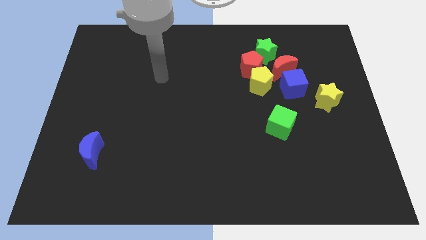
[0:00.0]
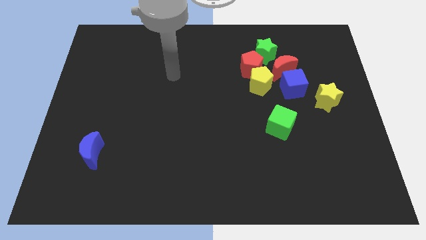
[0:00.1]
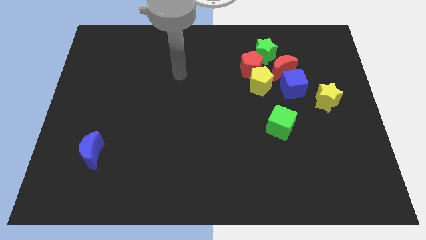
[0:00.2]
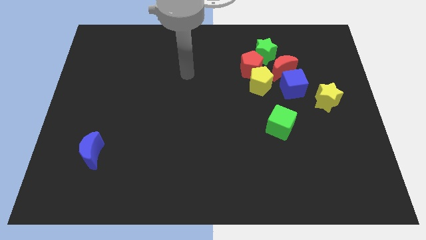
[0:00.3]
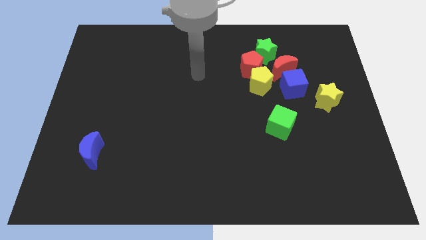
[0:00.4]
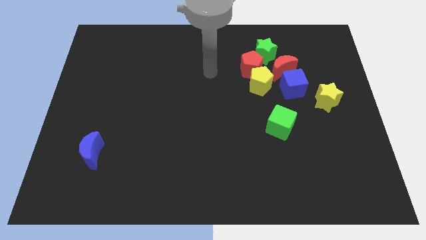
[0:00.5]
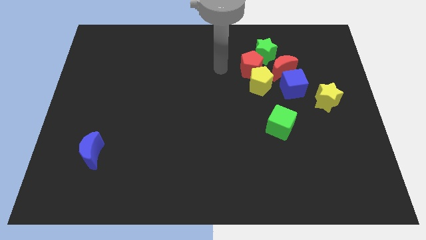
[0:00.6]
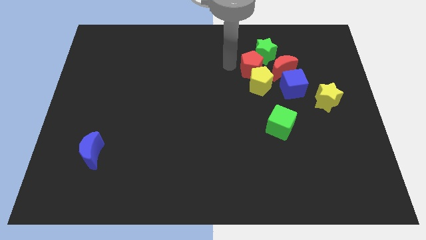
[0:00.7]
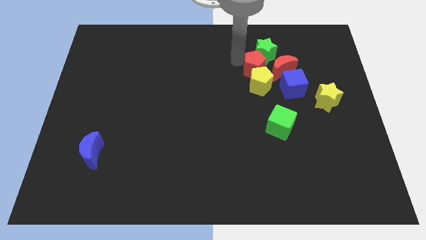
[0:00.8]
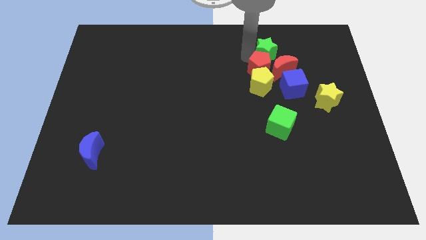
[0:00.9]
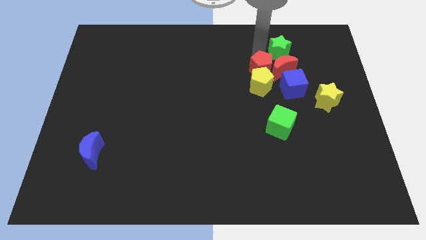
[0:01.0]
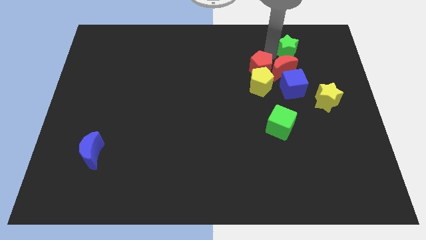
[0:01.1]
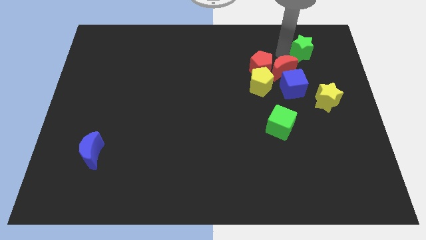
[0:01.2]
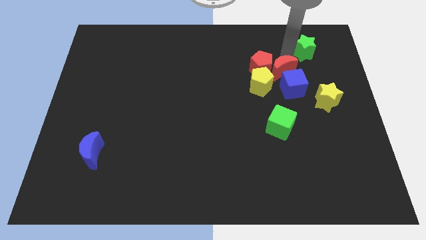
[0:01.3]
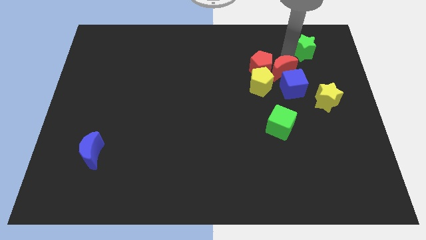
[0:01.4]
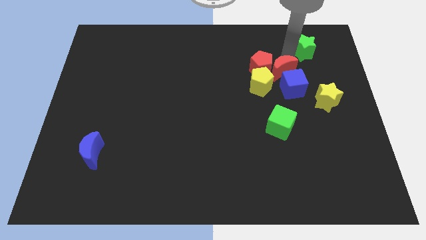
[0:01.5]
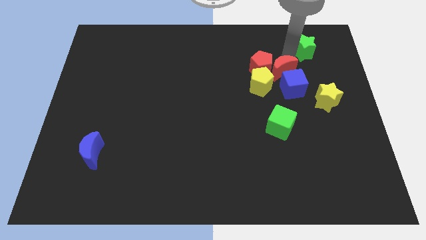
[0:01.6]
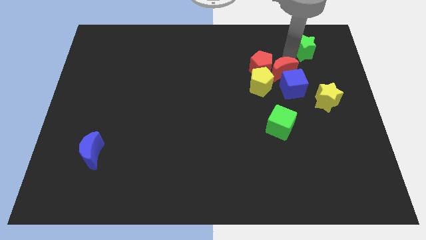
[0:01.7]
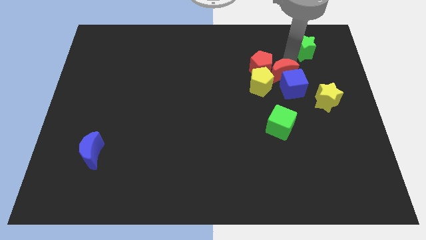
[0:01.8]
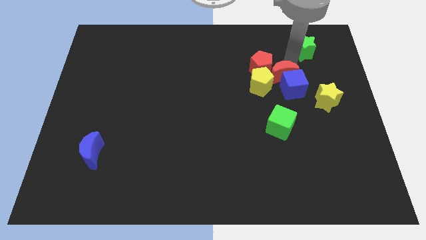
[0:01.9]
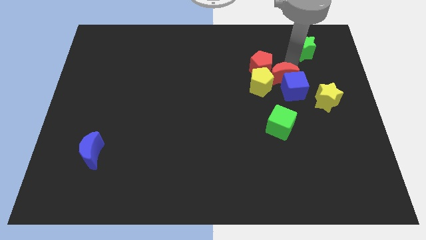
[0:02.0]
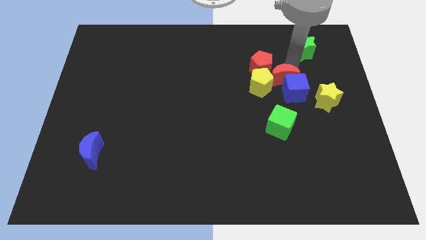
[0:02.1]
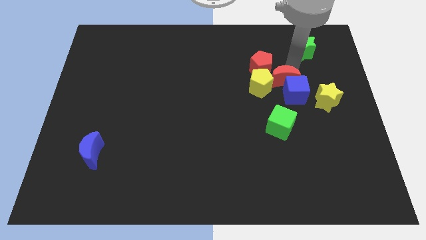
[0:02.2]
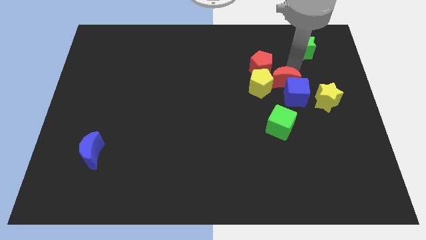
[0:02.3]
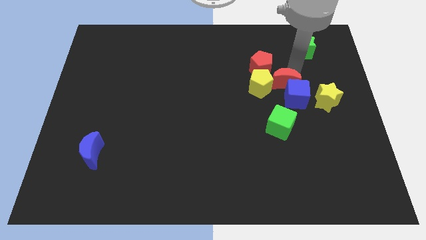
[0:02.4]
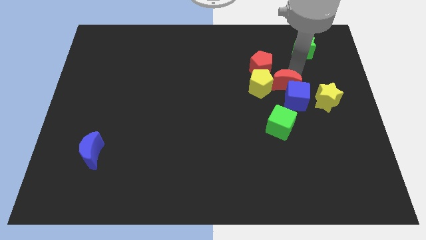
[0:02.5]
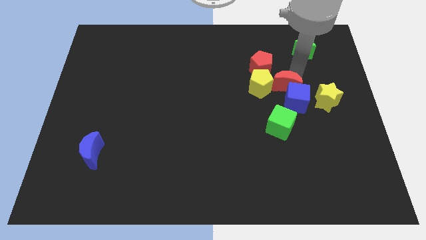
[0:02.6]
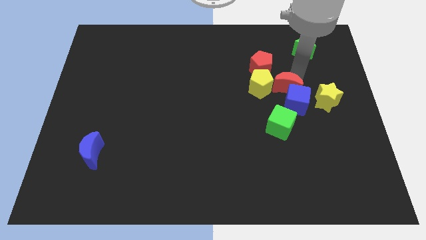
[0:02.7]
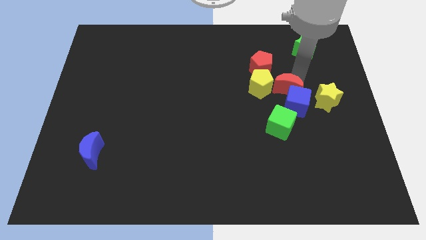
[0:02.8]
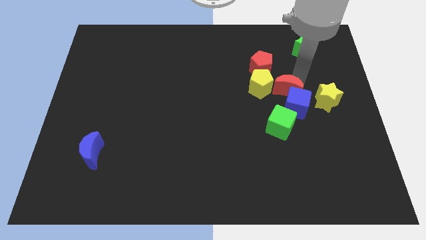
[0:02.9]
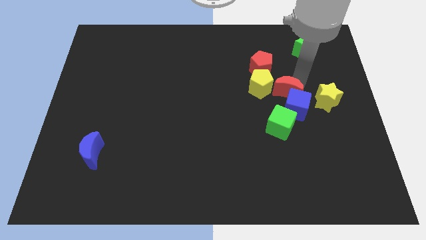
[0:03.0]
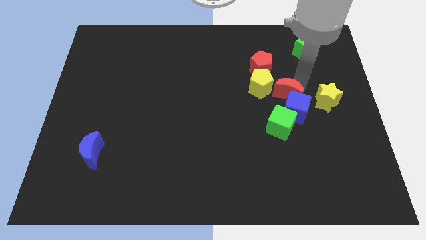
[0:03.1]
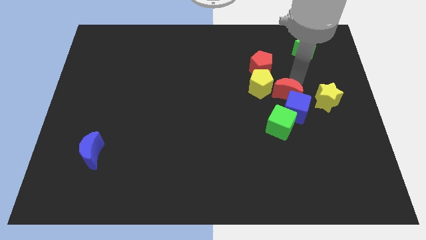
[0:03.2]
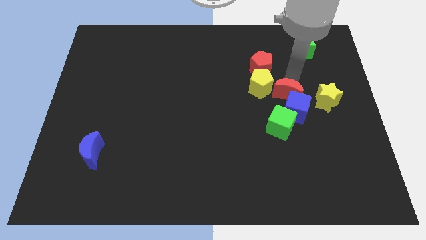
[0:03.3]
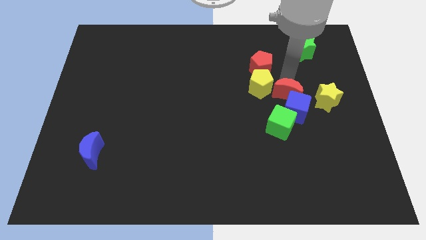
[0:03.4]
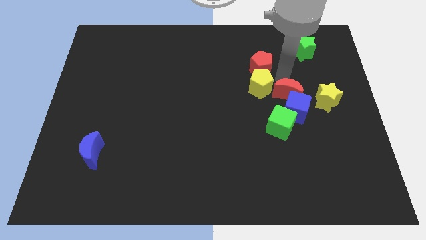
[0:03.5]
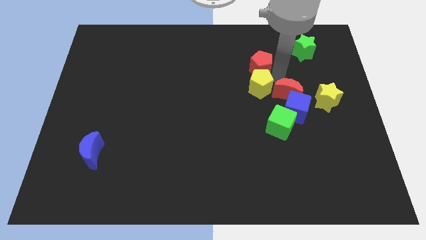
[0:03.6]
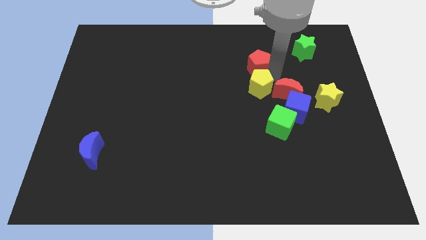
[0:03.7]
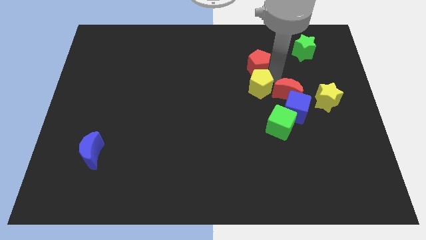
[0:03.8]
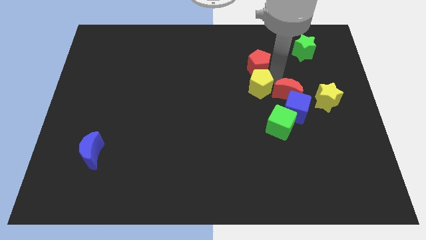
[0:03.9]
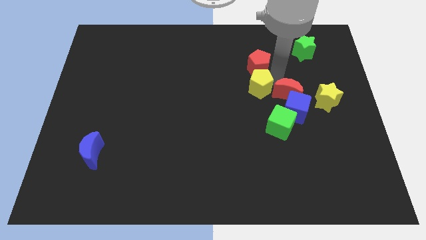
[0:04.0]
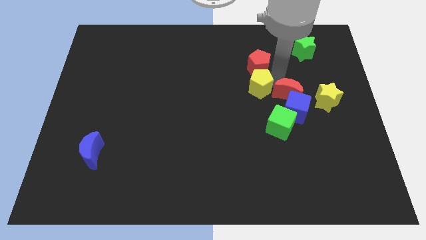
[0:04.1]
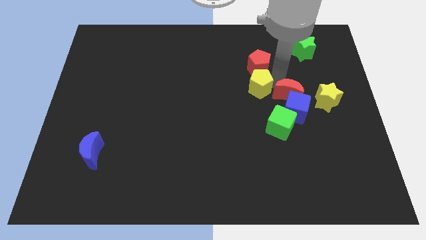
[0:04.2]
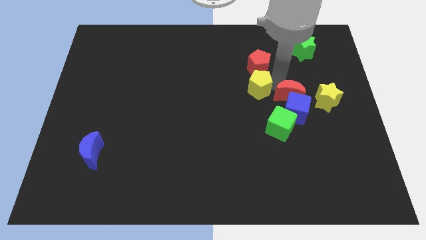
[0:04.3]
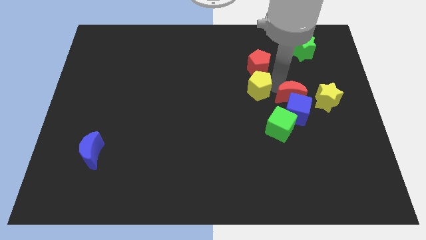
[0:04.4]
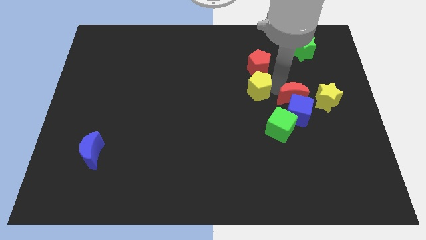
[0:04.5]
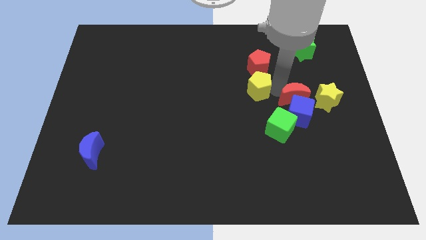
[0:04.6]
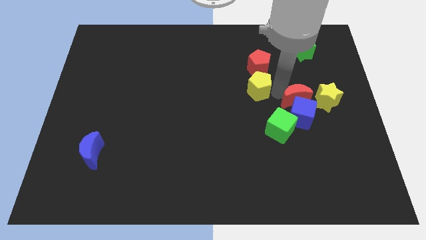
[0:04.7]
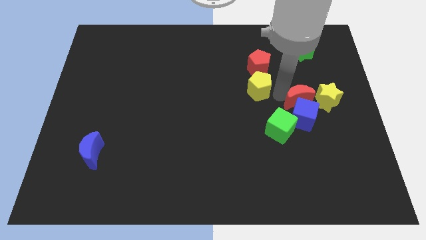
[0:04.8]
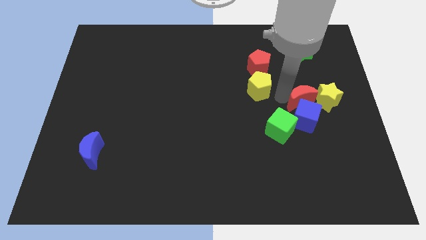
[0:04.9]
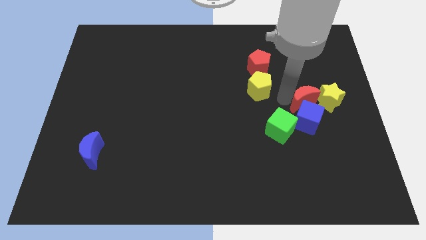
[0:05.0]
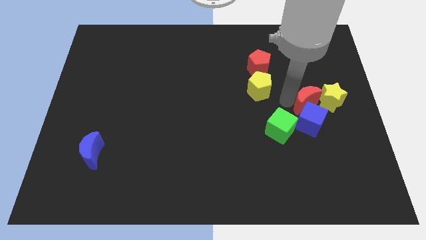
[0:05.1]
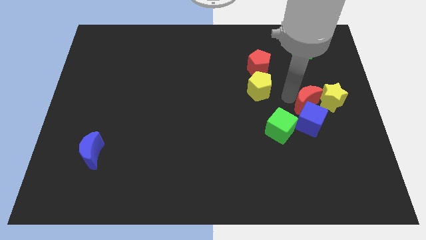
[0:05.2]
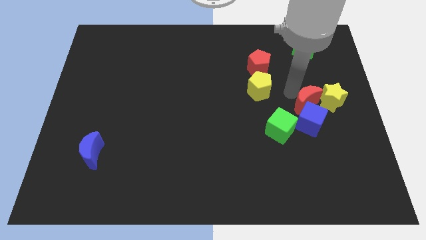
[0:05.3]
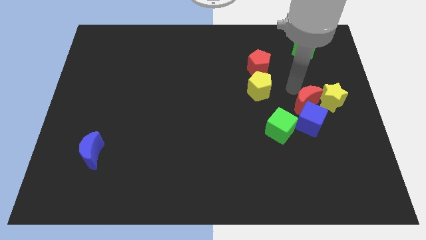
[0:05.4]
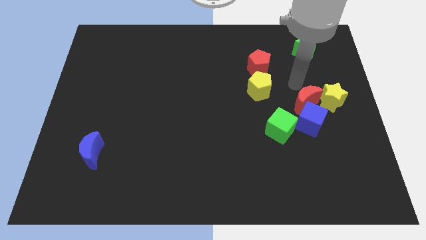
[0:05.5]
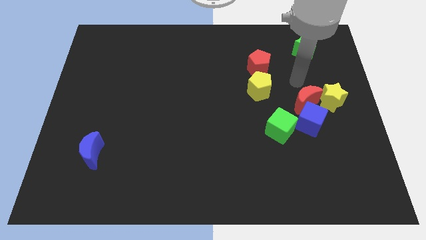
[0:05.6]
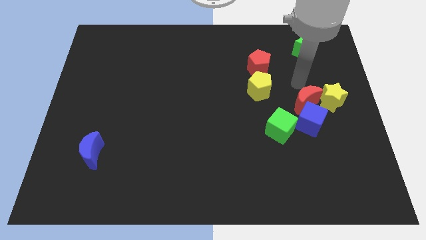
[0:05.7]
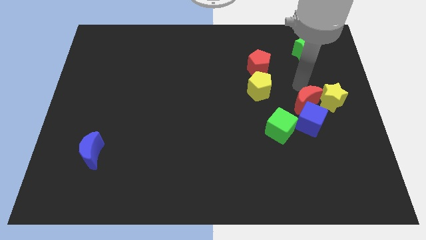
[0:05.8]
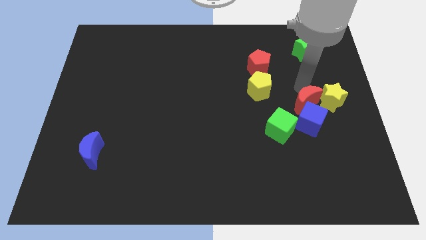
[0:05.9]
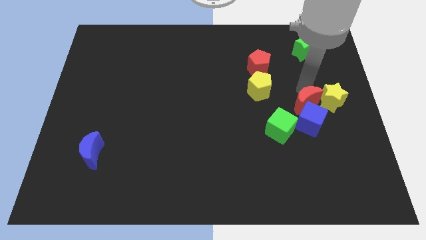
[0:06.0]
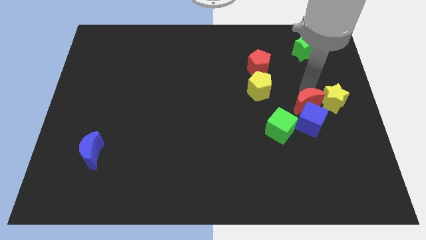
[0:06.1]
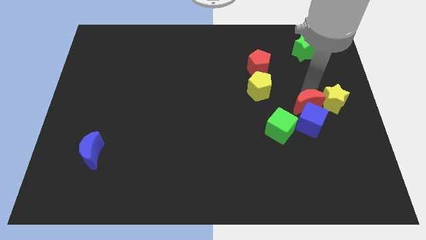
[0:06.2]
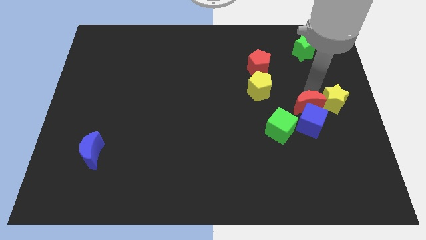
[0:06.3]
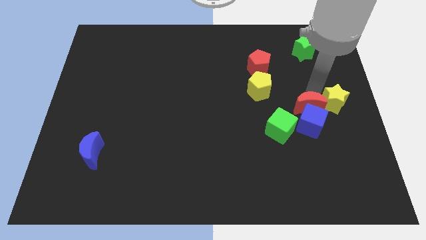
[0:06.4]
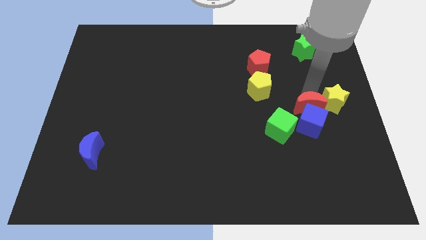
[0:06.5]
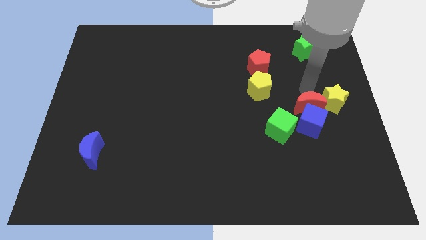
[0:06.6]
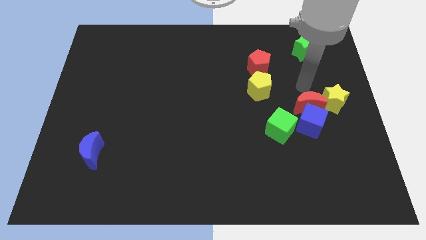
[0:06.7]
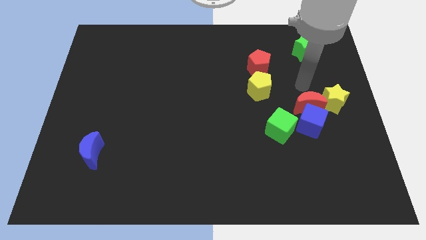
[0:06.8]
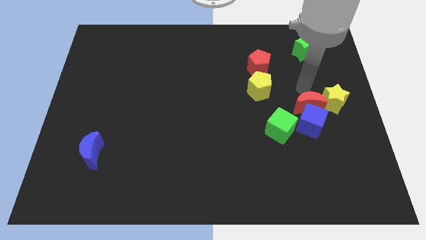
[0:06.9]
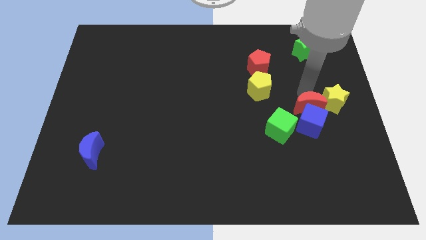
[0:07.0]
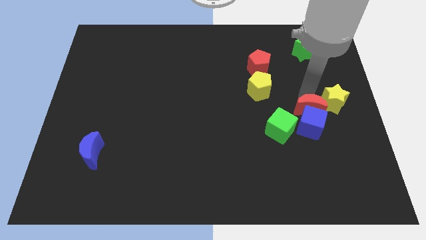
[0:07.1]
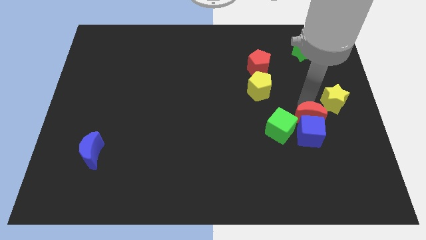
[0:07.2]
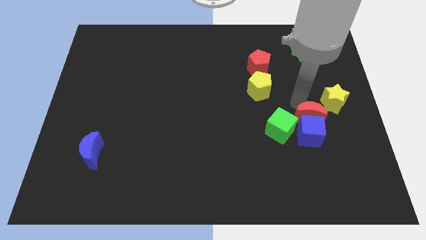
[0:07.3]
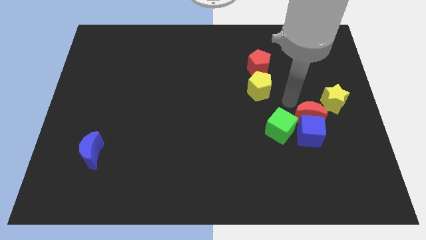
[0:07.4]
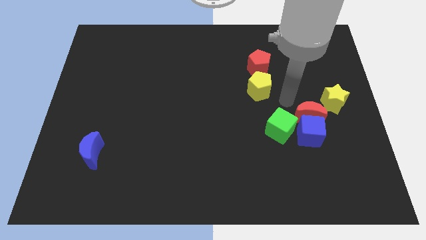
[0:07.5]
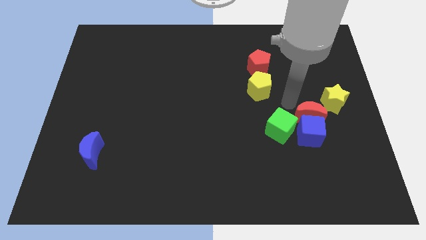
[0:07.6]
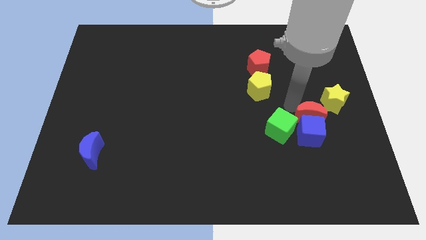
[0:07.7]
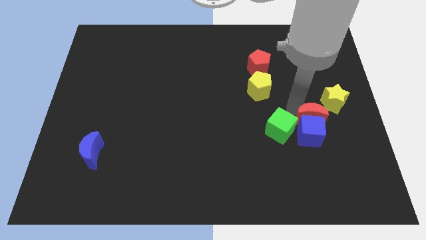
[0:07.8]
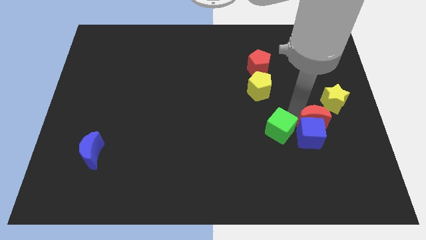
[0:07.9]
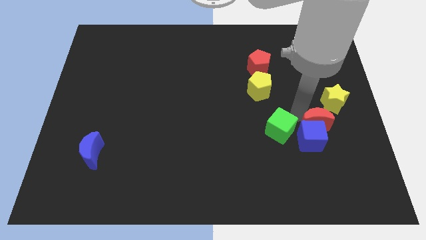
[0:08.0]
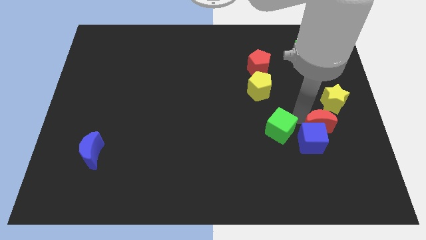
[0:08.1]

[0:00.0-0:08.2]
put the red moon below the yellow star

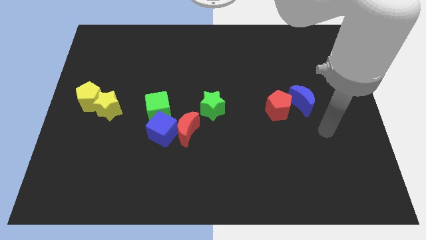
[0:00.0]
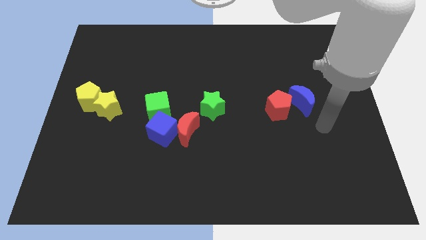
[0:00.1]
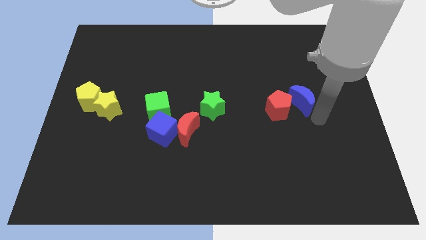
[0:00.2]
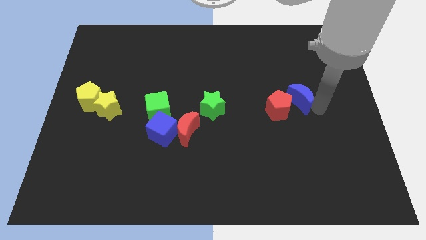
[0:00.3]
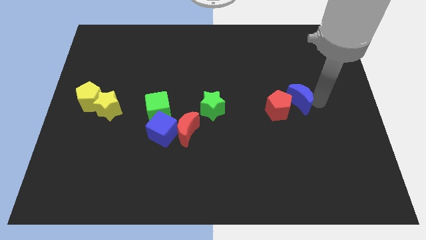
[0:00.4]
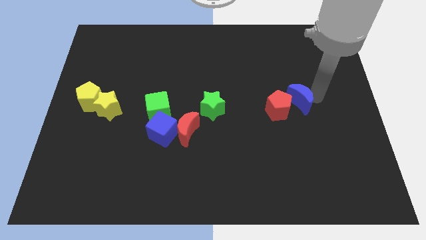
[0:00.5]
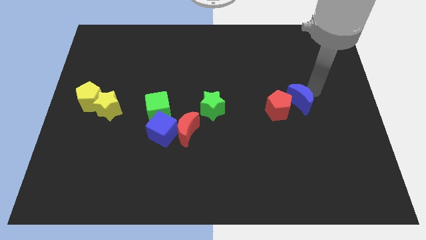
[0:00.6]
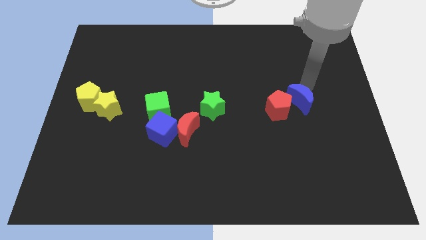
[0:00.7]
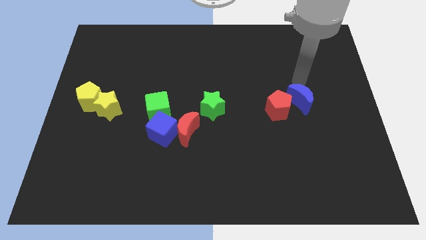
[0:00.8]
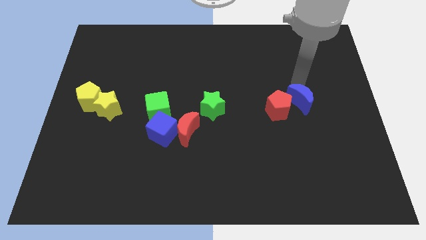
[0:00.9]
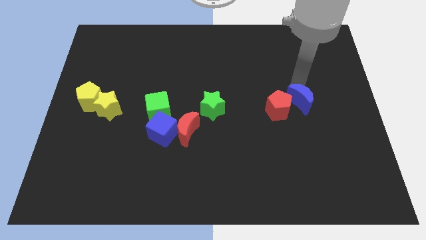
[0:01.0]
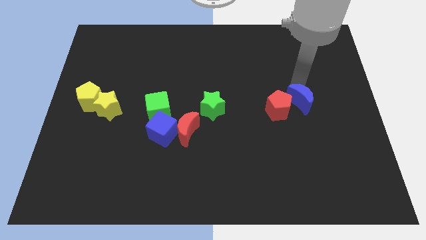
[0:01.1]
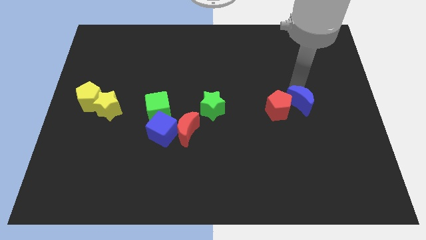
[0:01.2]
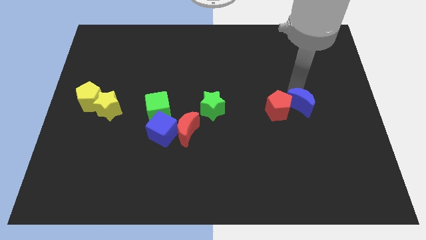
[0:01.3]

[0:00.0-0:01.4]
slide the blue moon diagonally down and to the right of the red pentagon
